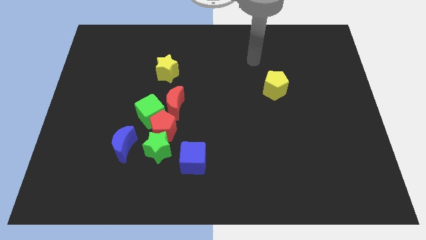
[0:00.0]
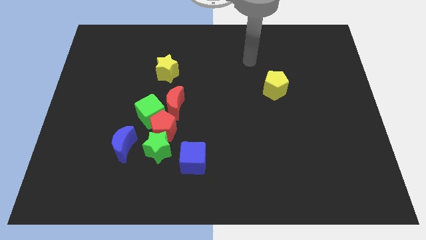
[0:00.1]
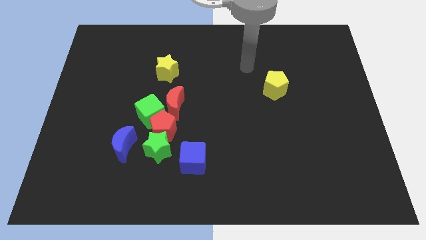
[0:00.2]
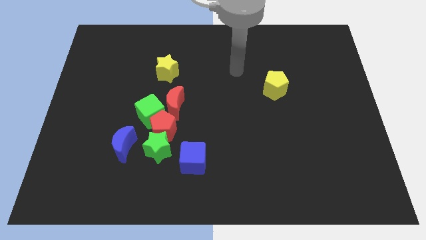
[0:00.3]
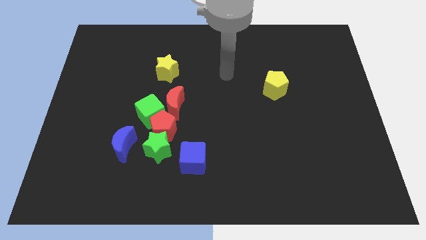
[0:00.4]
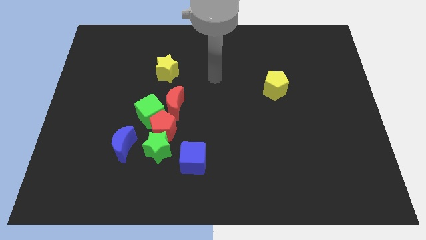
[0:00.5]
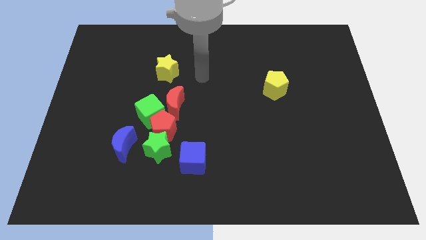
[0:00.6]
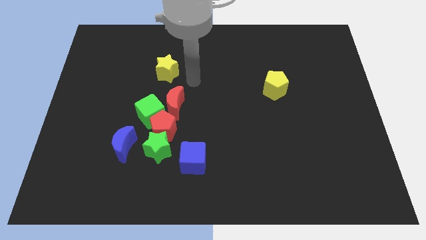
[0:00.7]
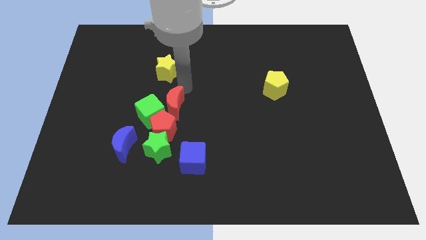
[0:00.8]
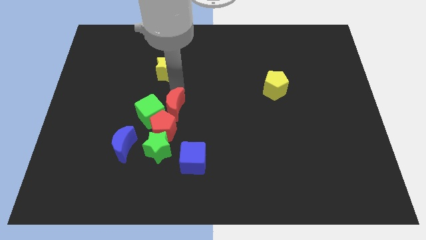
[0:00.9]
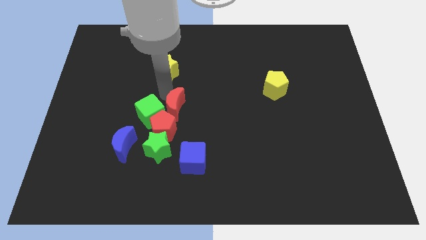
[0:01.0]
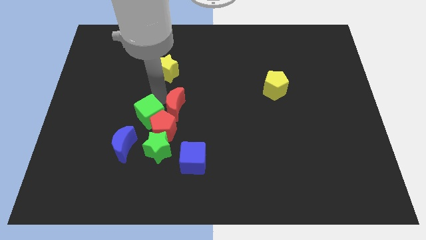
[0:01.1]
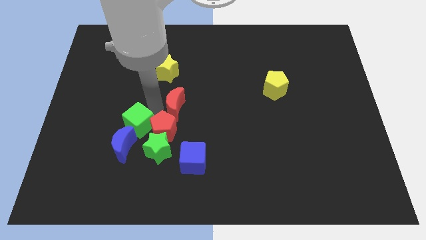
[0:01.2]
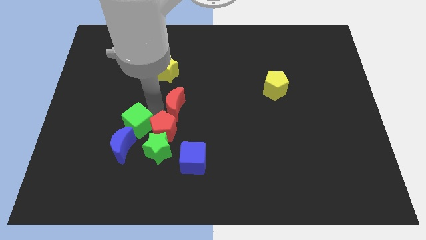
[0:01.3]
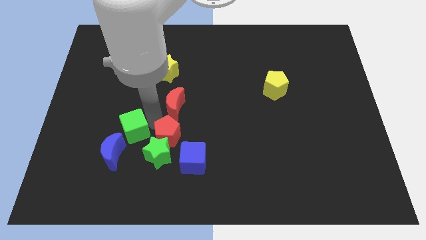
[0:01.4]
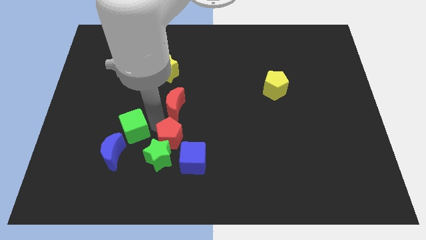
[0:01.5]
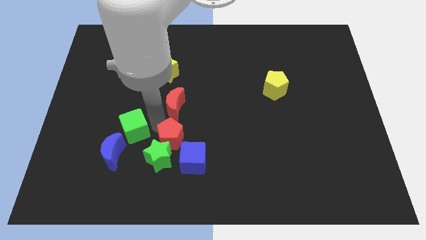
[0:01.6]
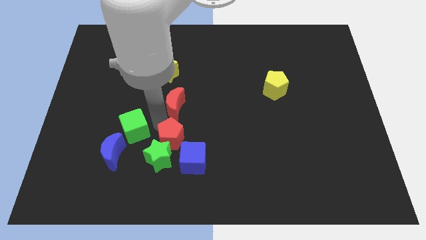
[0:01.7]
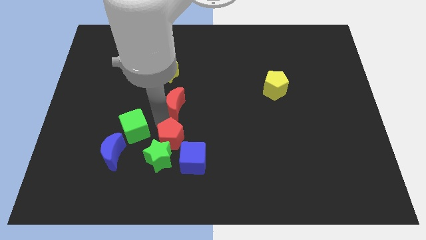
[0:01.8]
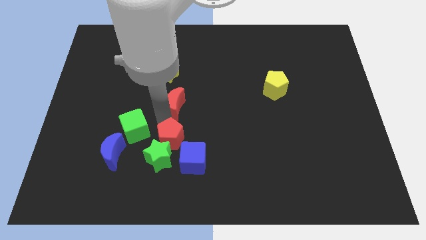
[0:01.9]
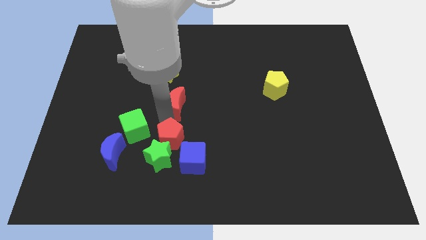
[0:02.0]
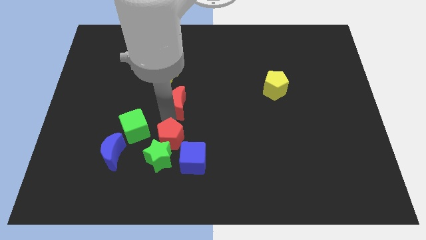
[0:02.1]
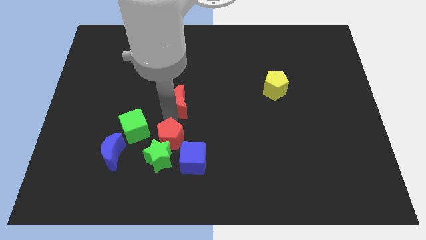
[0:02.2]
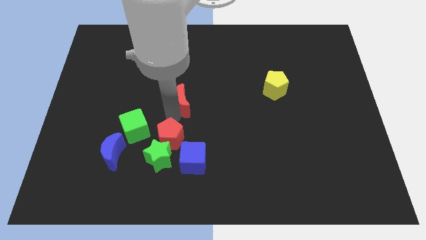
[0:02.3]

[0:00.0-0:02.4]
move the red moon away from the green cube and red pentagon

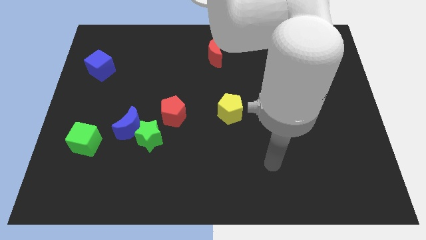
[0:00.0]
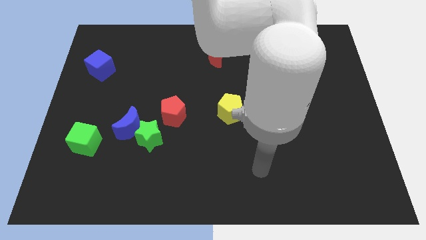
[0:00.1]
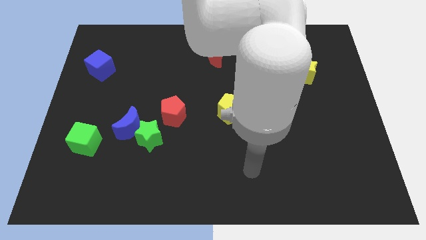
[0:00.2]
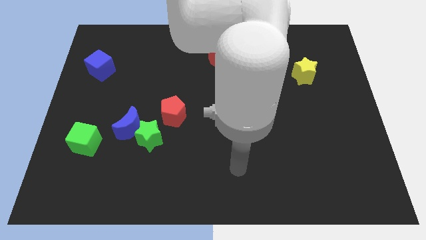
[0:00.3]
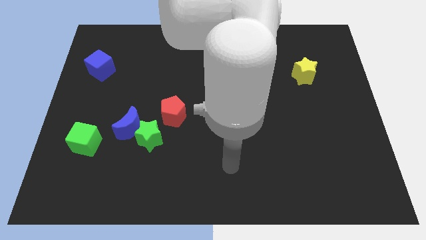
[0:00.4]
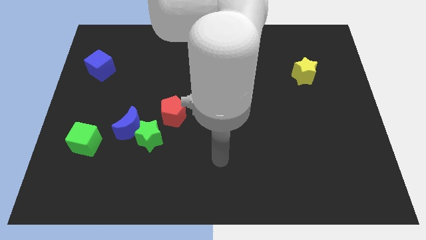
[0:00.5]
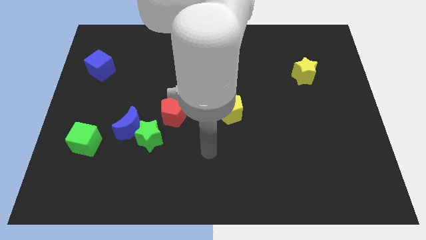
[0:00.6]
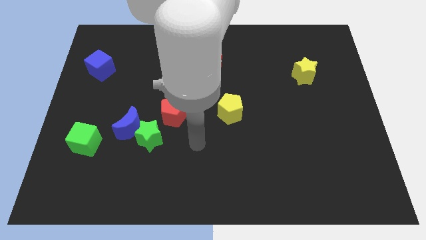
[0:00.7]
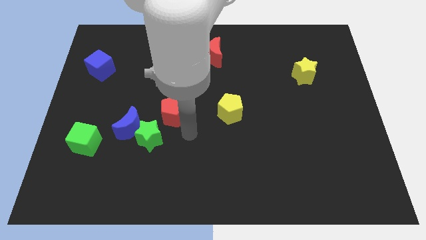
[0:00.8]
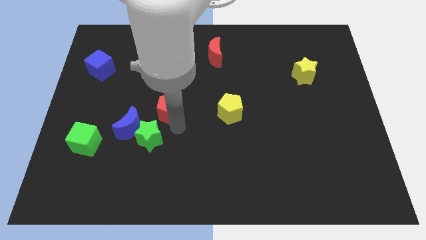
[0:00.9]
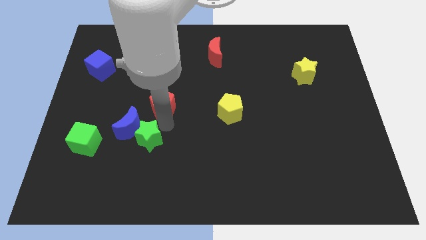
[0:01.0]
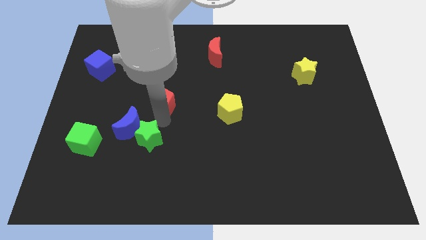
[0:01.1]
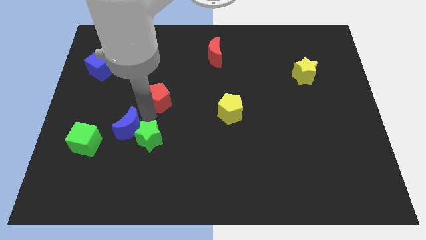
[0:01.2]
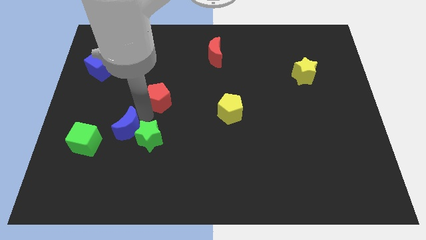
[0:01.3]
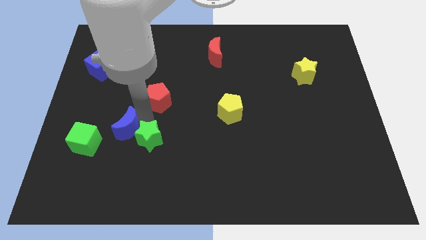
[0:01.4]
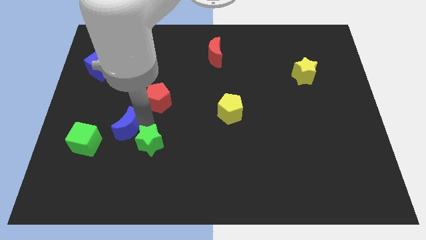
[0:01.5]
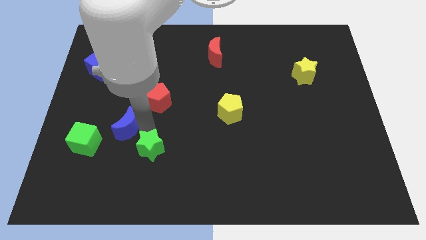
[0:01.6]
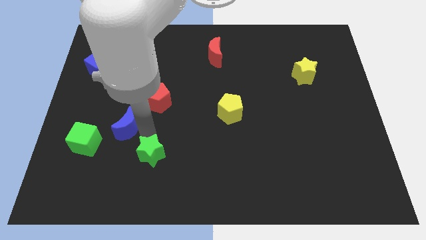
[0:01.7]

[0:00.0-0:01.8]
move the green star away from the blue moon and red pentagon

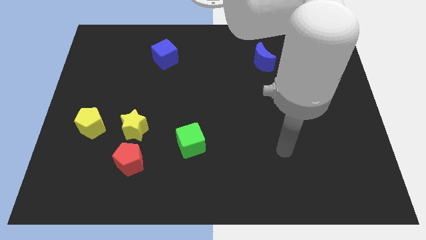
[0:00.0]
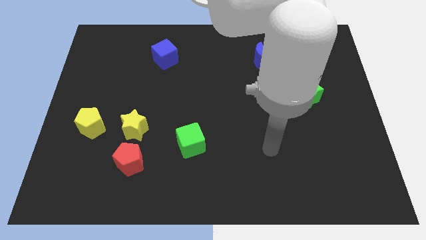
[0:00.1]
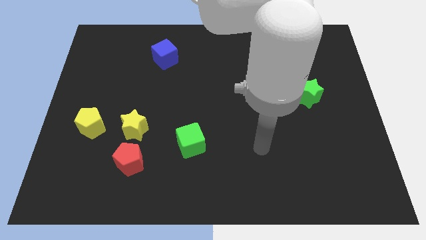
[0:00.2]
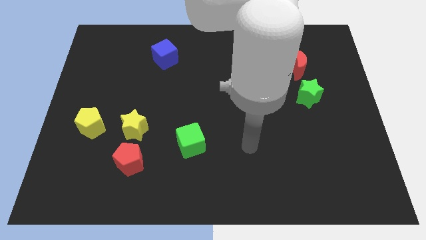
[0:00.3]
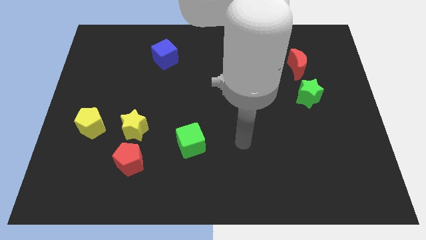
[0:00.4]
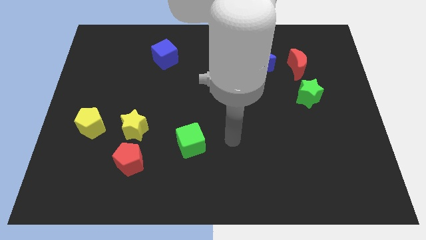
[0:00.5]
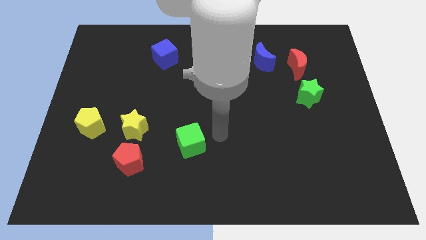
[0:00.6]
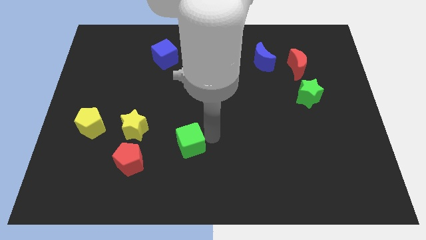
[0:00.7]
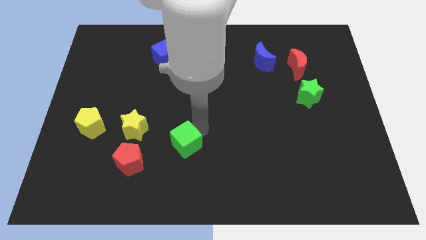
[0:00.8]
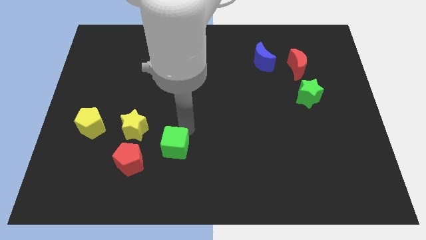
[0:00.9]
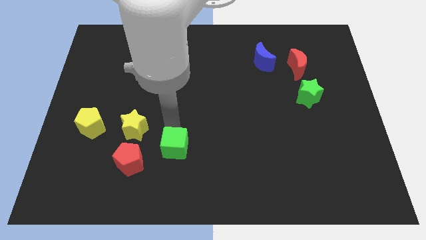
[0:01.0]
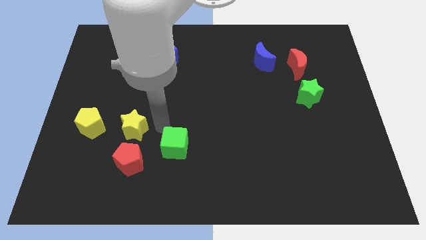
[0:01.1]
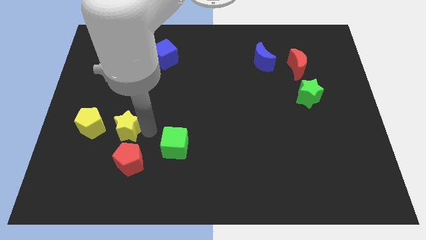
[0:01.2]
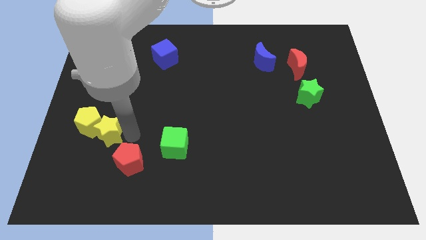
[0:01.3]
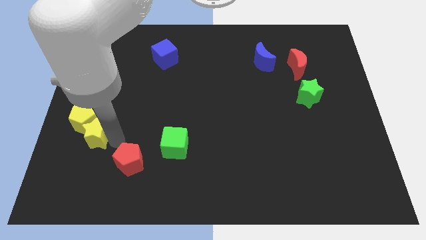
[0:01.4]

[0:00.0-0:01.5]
move the red pentagon away from the yellow star

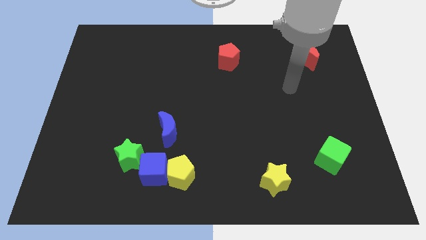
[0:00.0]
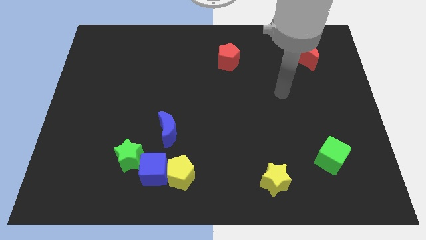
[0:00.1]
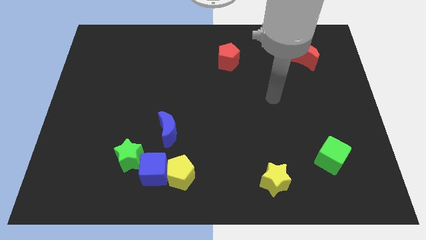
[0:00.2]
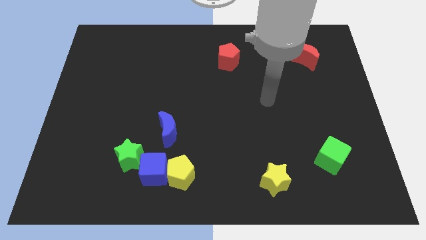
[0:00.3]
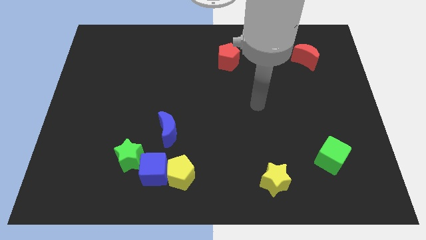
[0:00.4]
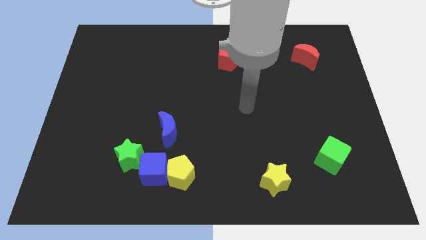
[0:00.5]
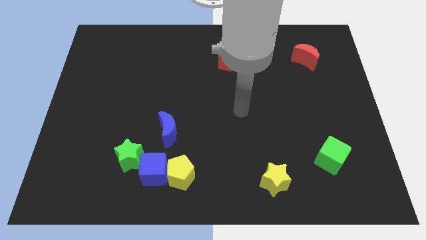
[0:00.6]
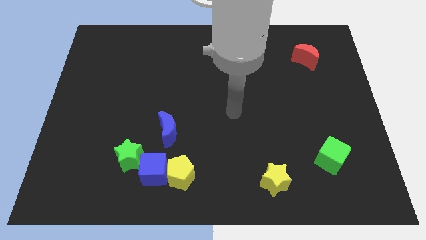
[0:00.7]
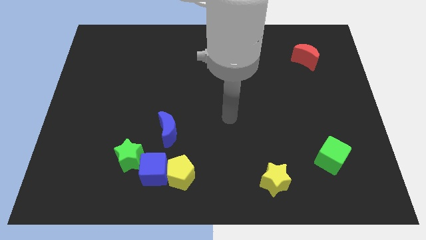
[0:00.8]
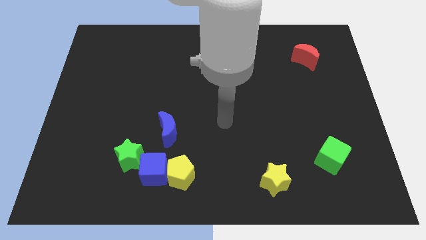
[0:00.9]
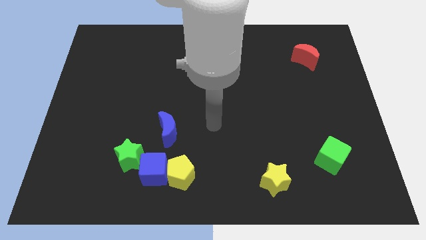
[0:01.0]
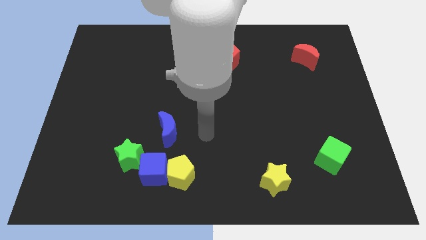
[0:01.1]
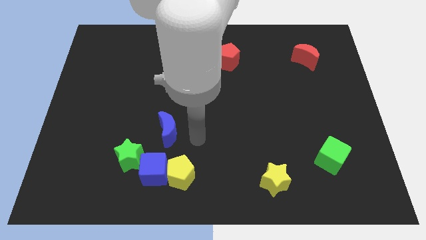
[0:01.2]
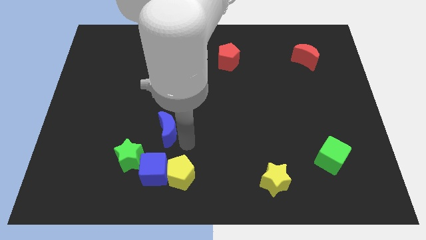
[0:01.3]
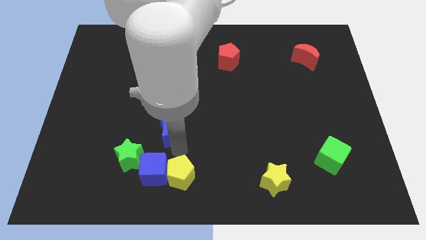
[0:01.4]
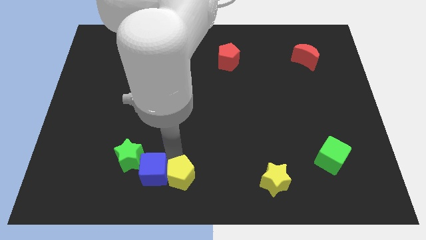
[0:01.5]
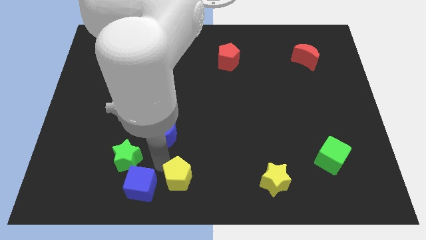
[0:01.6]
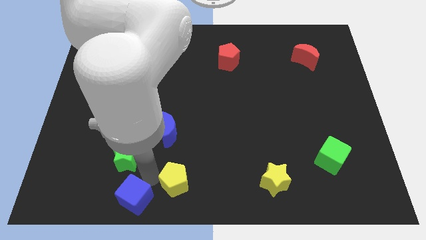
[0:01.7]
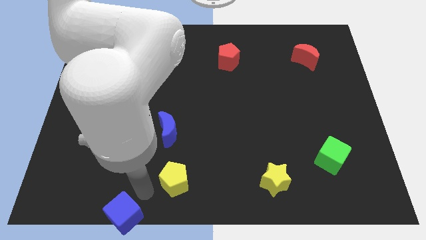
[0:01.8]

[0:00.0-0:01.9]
move the yellow pentagon away from the blue cube

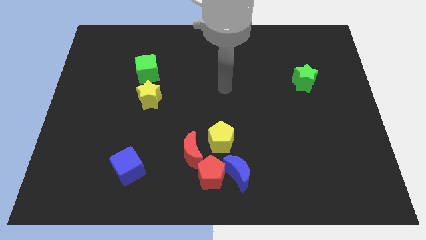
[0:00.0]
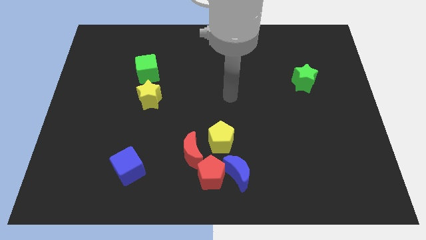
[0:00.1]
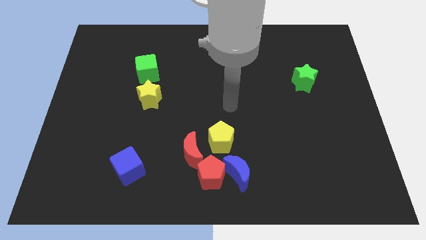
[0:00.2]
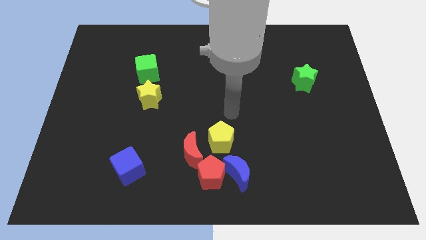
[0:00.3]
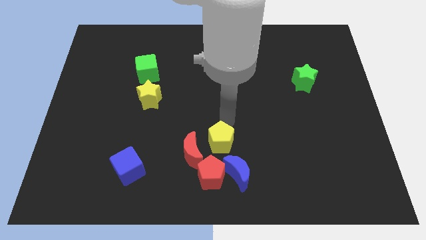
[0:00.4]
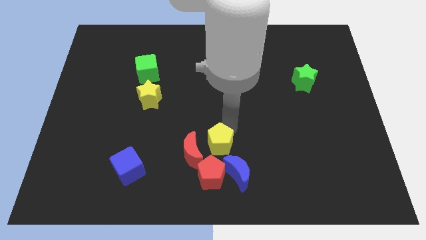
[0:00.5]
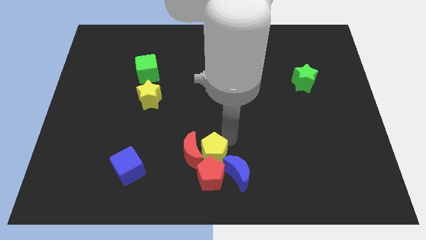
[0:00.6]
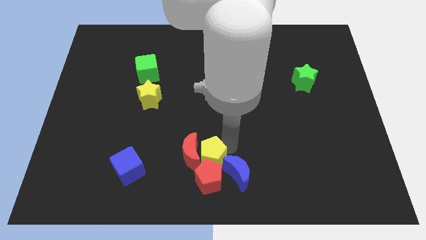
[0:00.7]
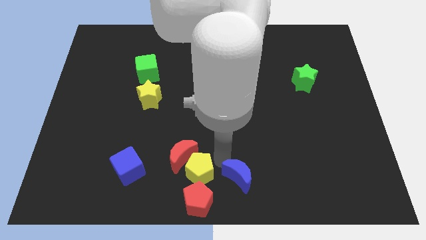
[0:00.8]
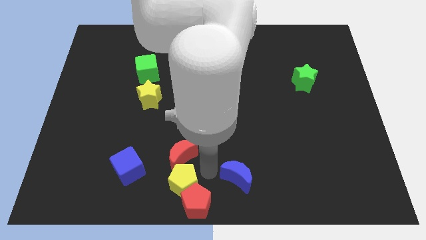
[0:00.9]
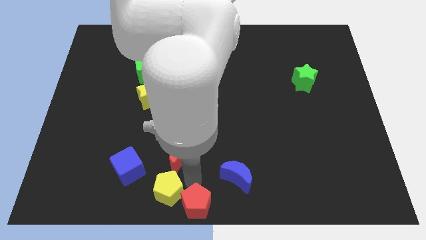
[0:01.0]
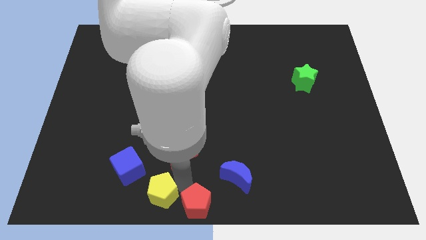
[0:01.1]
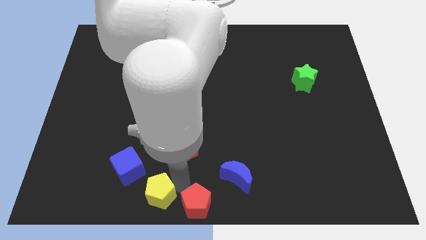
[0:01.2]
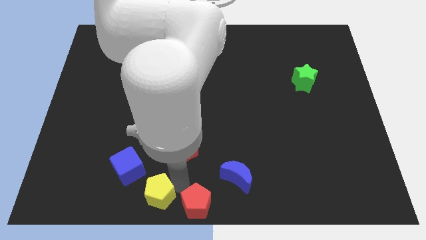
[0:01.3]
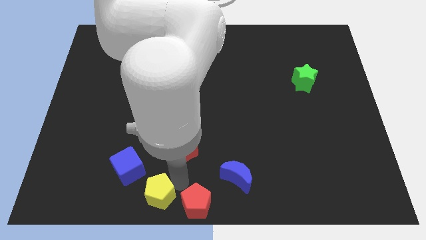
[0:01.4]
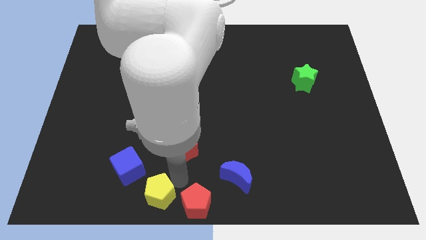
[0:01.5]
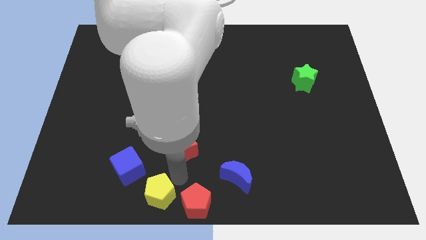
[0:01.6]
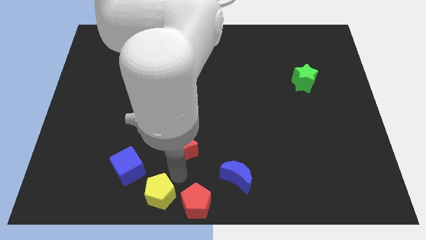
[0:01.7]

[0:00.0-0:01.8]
pull the red moon apart from the red pentagon and yellow pentagon
